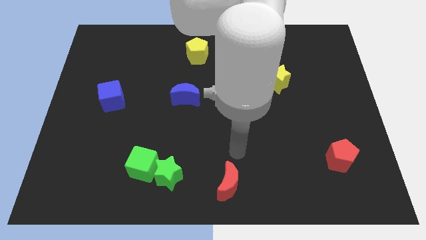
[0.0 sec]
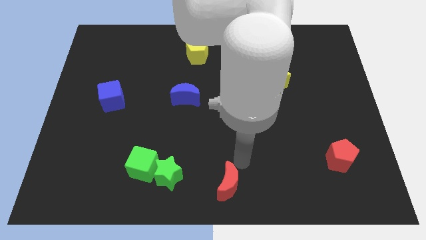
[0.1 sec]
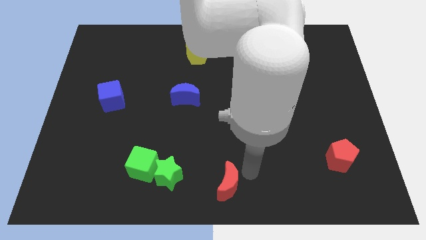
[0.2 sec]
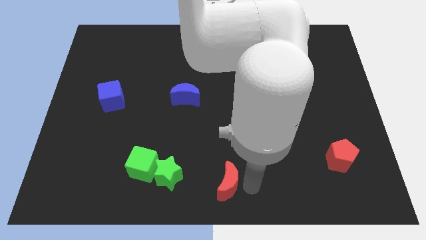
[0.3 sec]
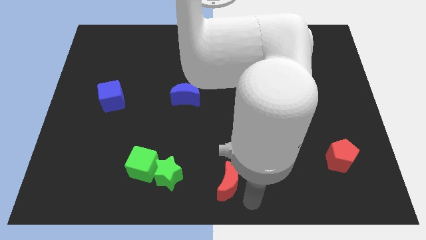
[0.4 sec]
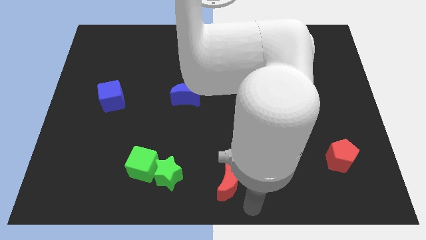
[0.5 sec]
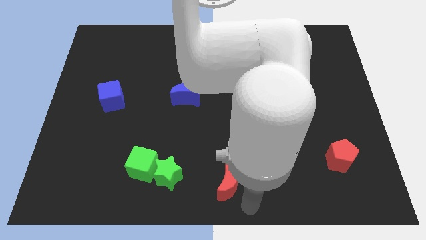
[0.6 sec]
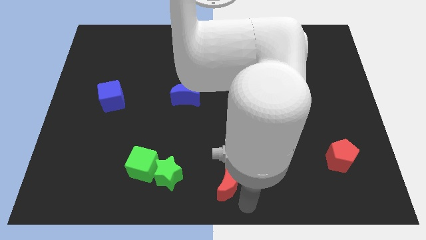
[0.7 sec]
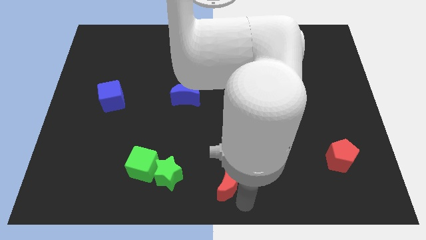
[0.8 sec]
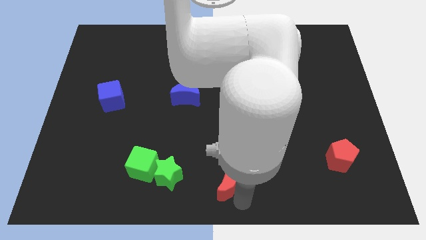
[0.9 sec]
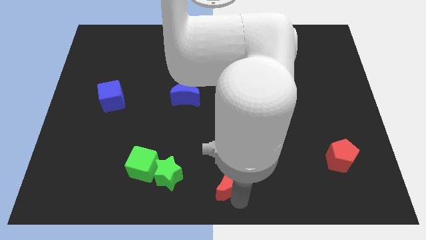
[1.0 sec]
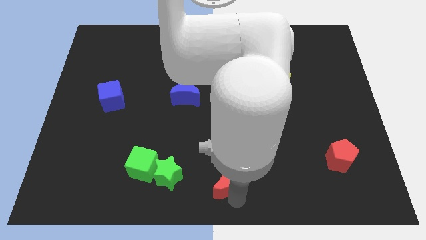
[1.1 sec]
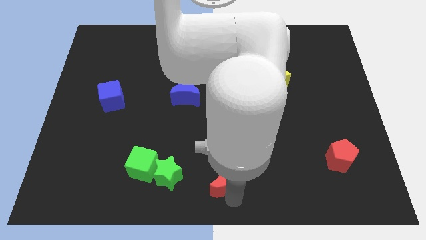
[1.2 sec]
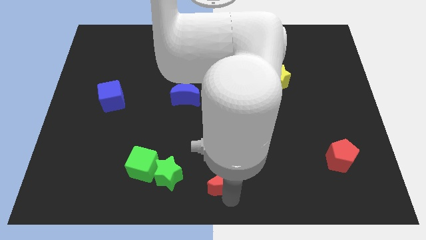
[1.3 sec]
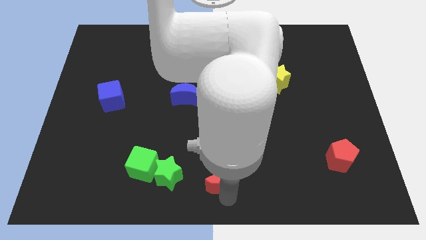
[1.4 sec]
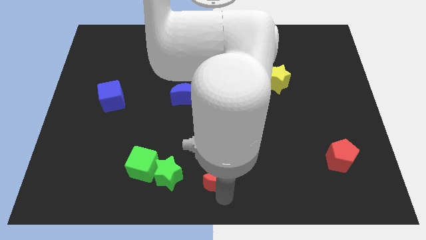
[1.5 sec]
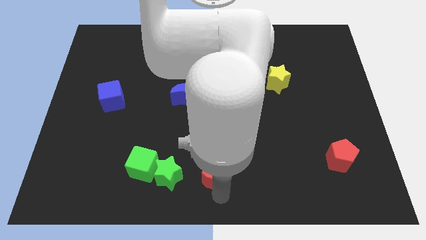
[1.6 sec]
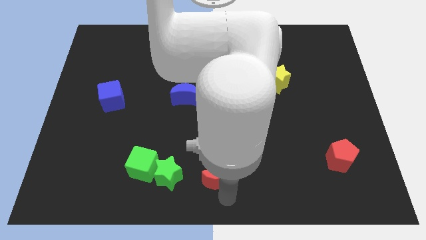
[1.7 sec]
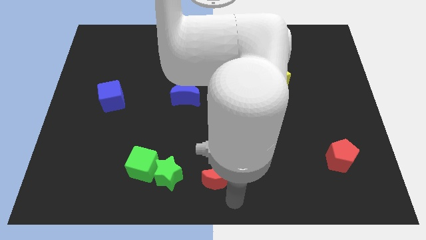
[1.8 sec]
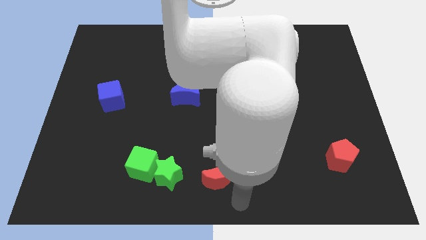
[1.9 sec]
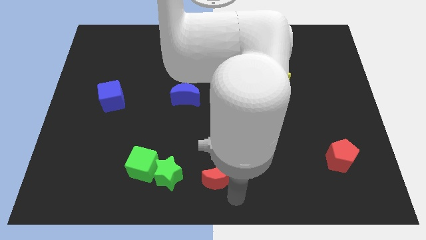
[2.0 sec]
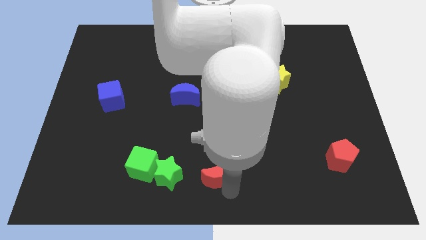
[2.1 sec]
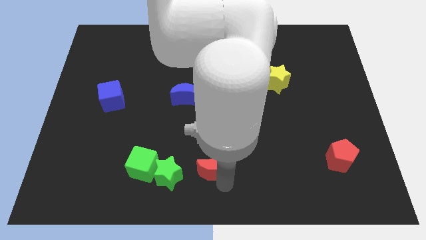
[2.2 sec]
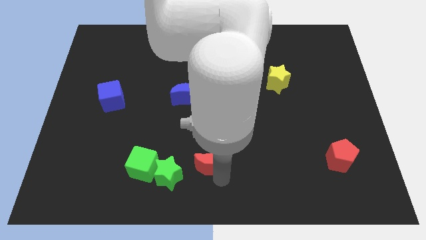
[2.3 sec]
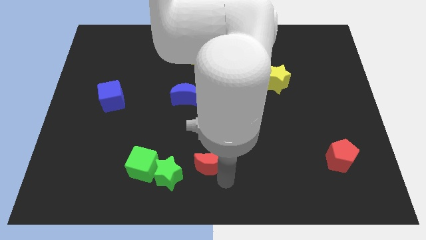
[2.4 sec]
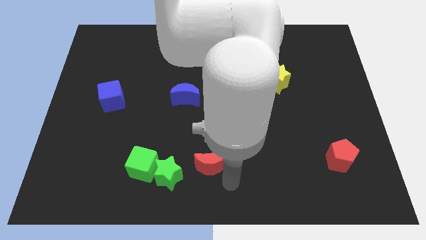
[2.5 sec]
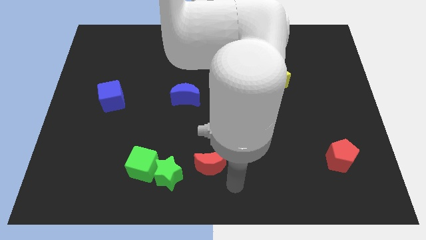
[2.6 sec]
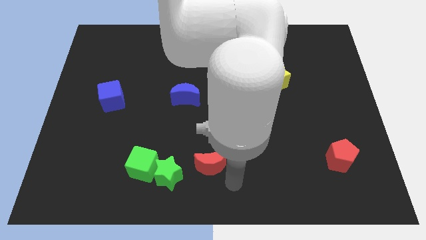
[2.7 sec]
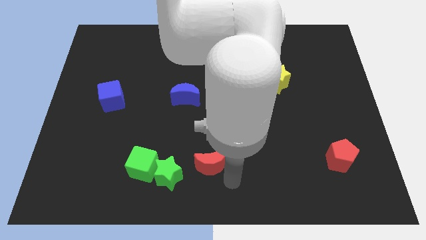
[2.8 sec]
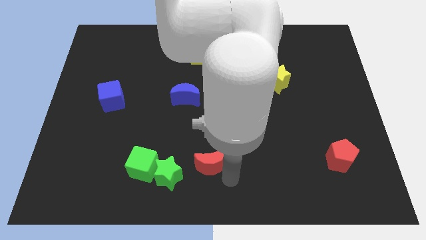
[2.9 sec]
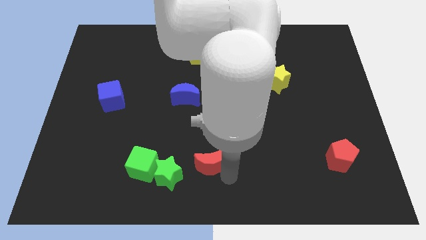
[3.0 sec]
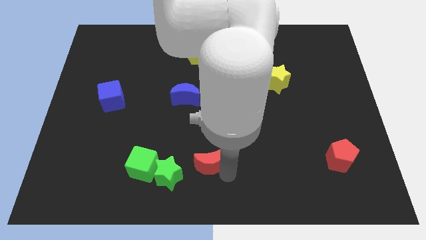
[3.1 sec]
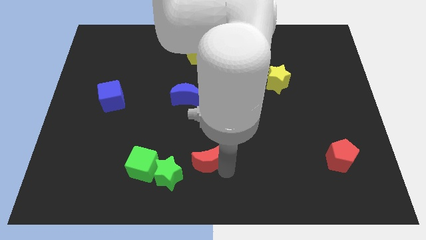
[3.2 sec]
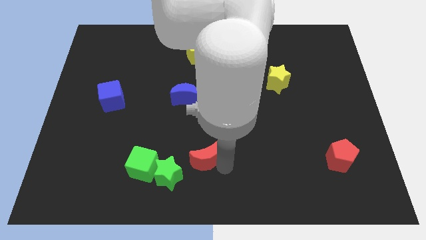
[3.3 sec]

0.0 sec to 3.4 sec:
push the red moon a little bit diagonally upwards and to the left

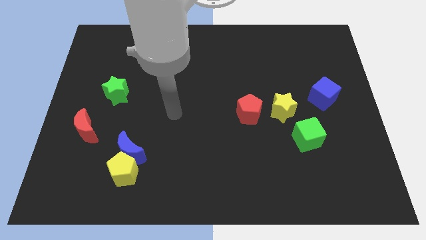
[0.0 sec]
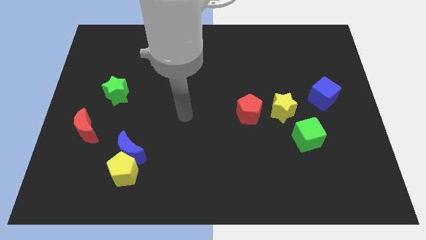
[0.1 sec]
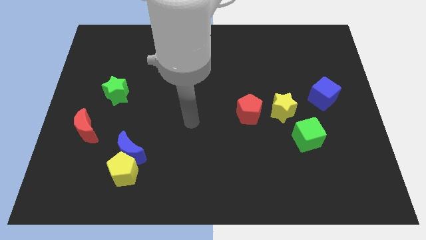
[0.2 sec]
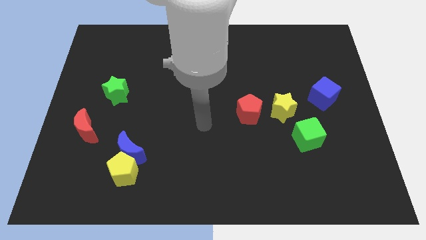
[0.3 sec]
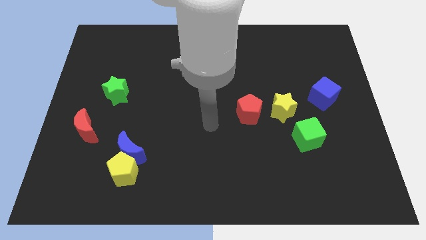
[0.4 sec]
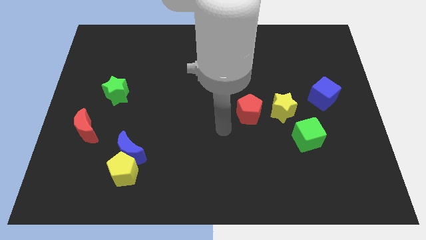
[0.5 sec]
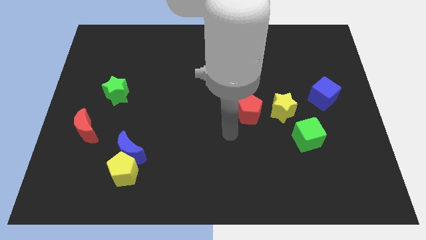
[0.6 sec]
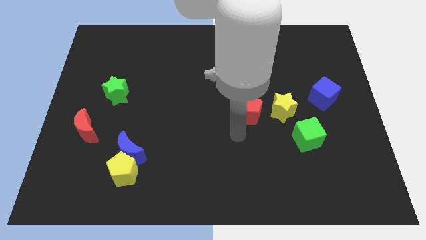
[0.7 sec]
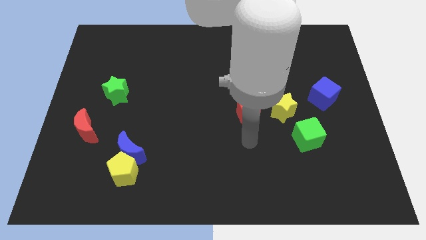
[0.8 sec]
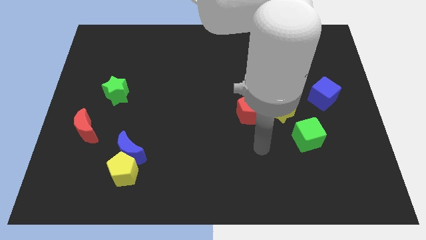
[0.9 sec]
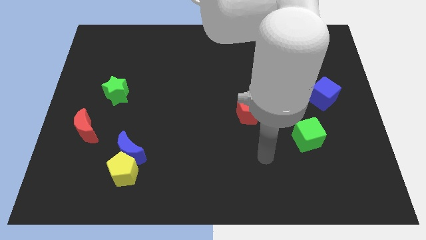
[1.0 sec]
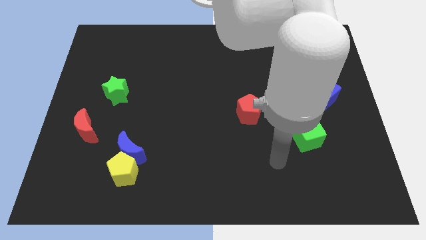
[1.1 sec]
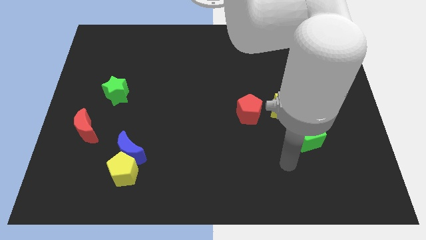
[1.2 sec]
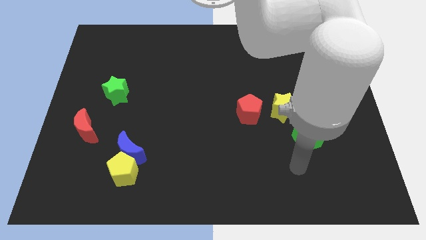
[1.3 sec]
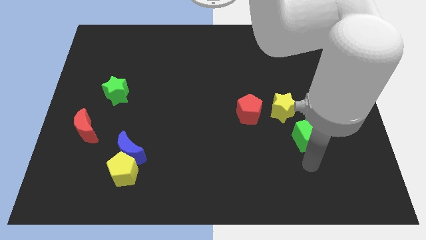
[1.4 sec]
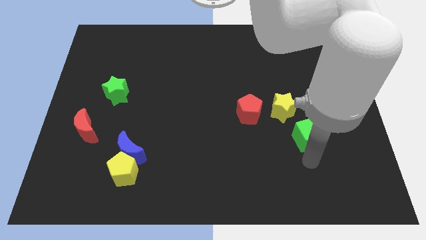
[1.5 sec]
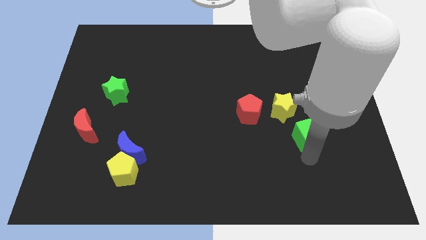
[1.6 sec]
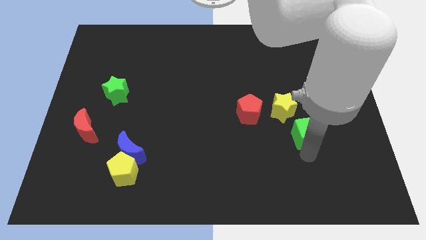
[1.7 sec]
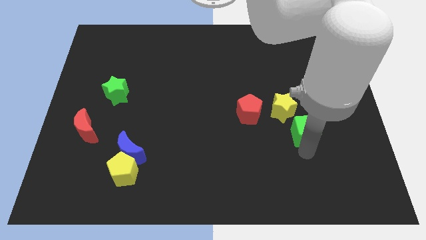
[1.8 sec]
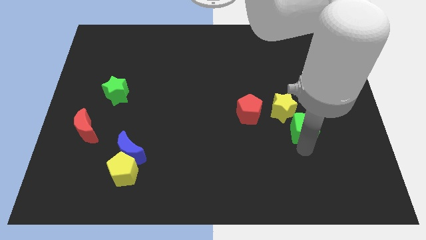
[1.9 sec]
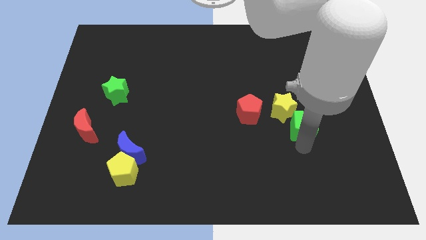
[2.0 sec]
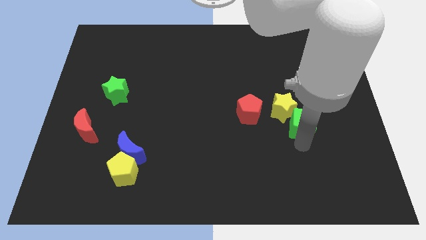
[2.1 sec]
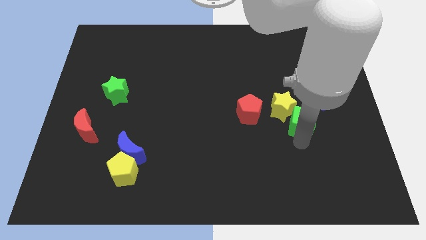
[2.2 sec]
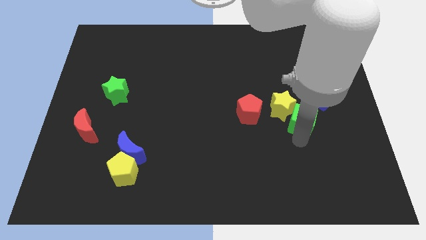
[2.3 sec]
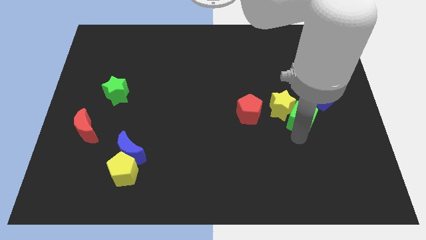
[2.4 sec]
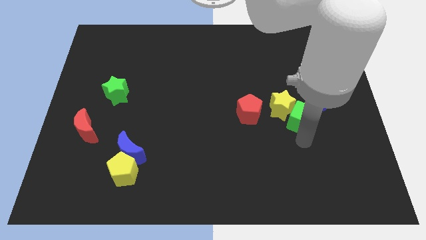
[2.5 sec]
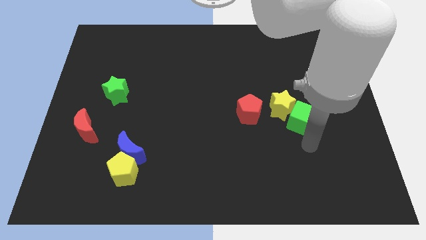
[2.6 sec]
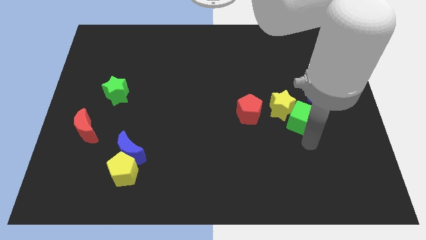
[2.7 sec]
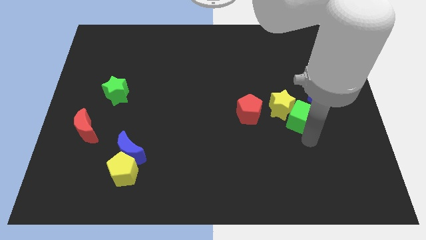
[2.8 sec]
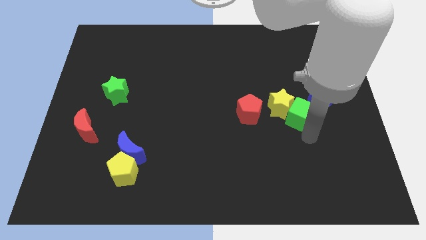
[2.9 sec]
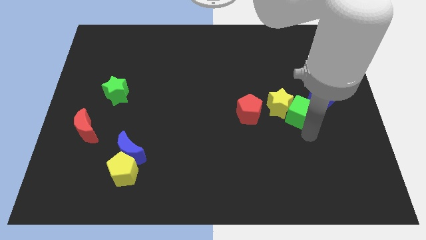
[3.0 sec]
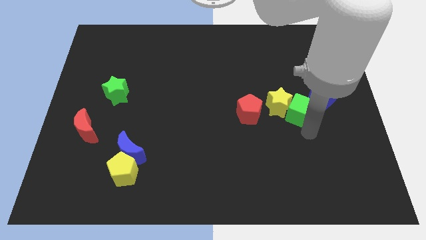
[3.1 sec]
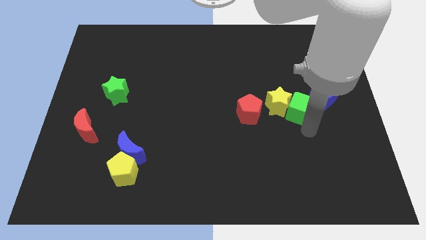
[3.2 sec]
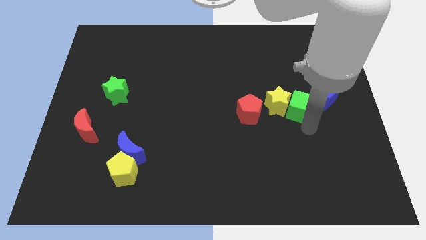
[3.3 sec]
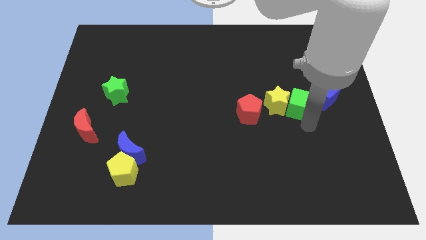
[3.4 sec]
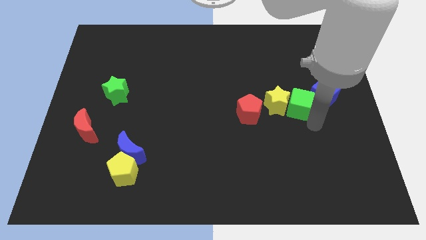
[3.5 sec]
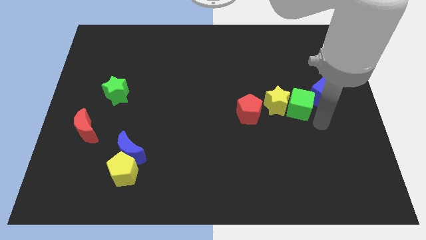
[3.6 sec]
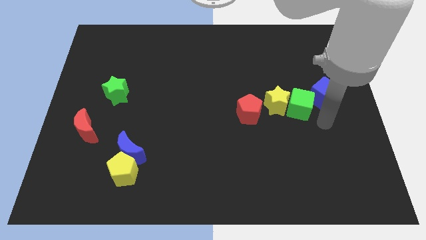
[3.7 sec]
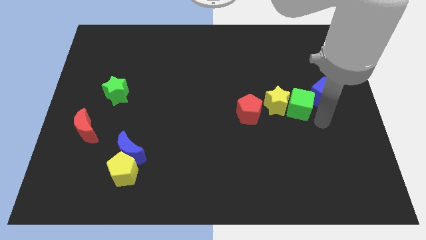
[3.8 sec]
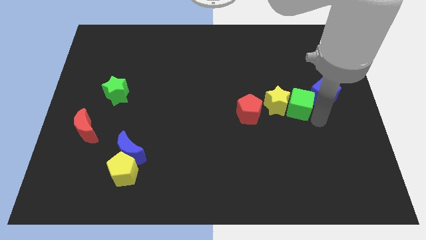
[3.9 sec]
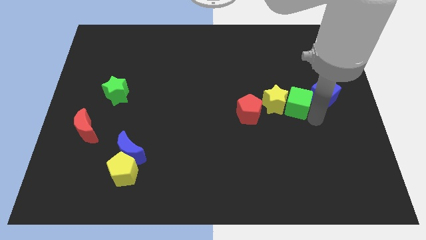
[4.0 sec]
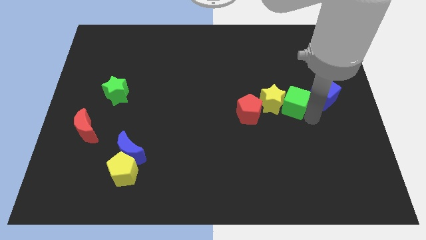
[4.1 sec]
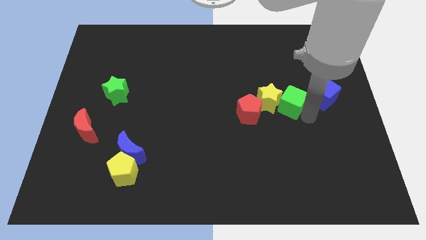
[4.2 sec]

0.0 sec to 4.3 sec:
slide the green cube up and to the left slightly
